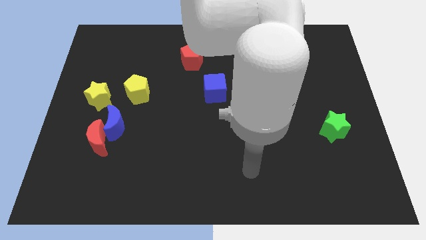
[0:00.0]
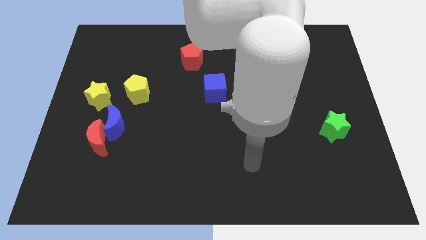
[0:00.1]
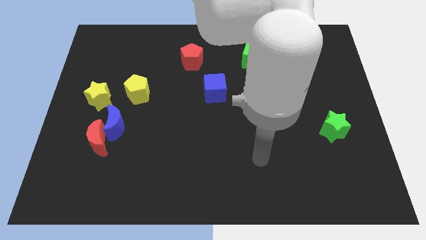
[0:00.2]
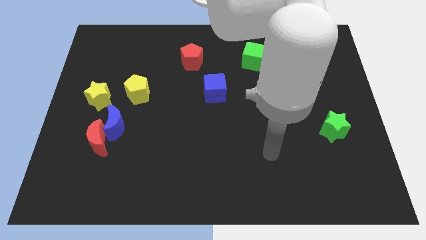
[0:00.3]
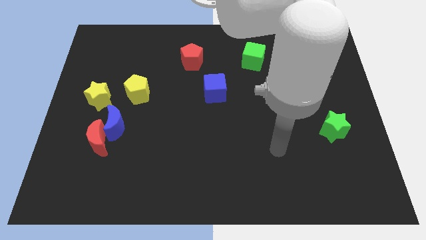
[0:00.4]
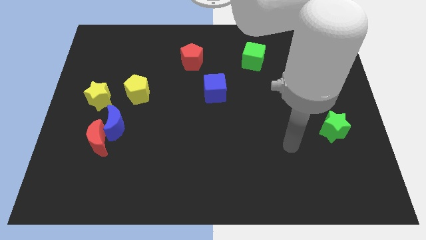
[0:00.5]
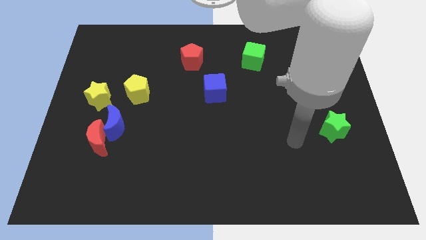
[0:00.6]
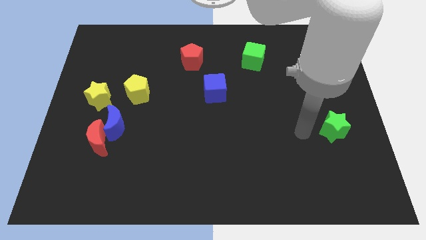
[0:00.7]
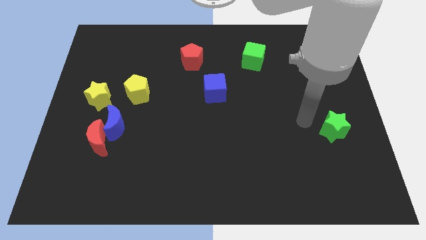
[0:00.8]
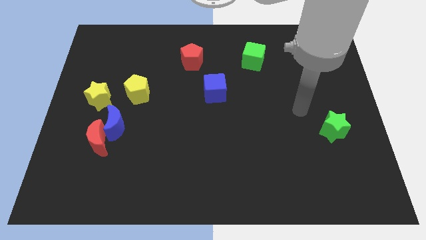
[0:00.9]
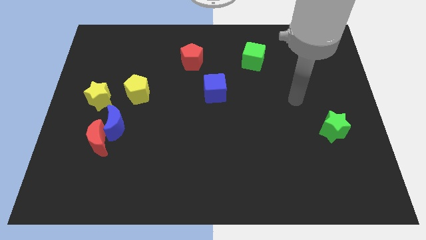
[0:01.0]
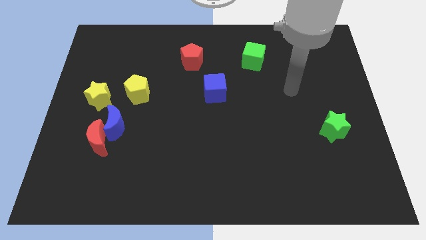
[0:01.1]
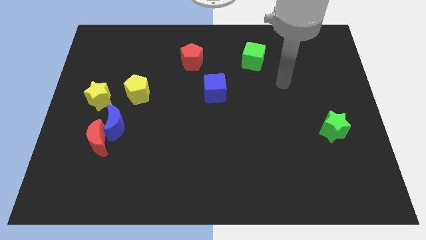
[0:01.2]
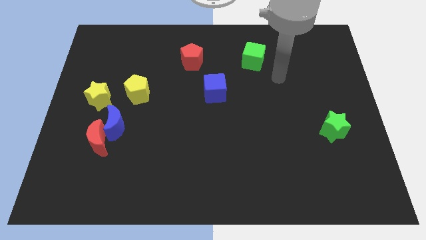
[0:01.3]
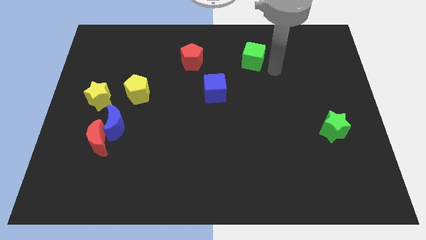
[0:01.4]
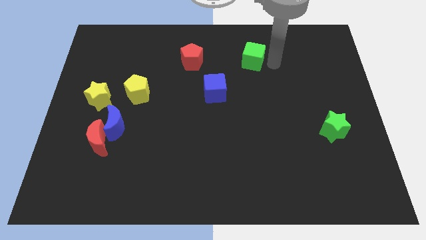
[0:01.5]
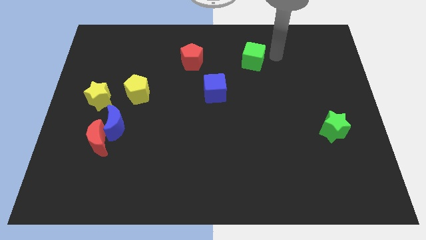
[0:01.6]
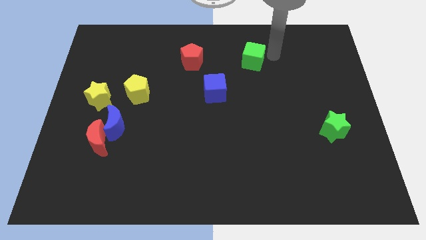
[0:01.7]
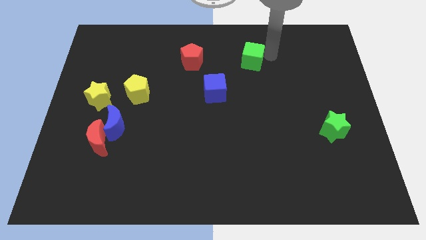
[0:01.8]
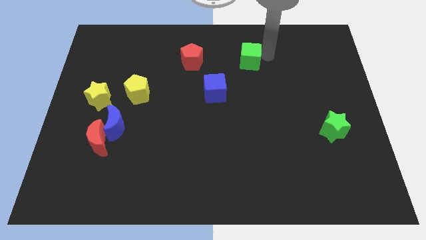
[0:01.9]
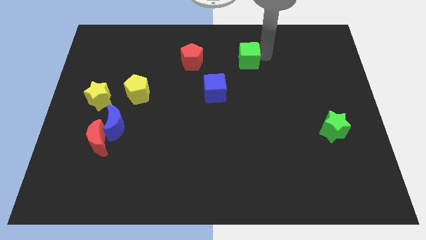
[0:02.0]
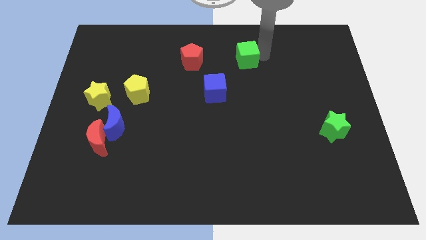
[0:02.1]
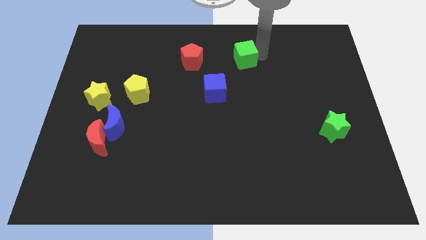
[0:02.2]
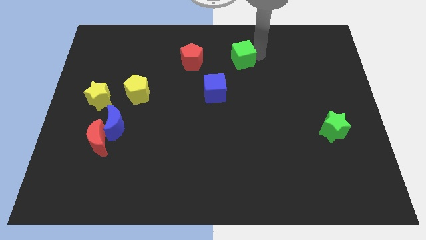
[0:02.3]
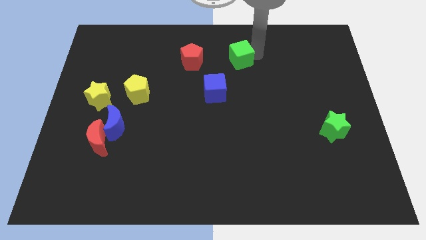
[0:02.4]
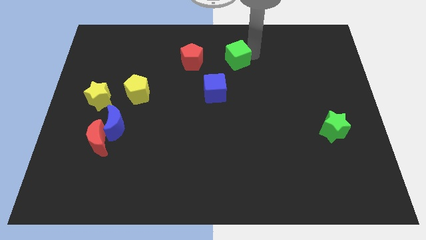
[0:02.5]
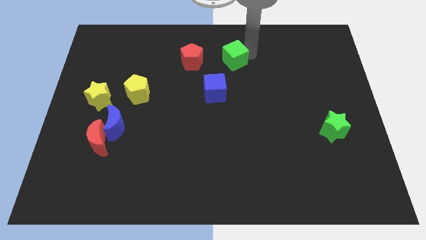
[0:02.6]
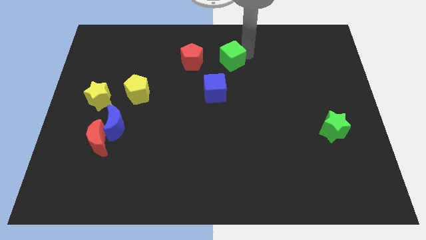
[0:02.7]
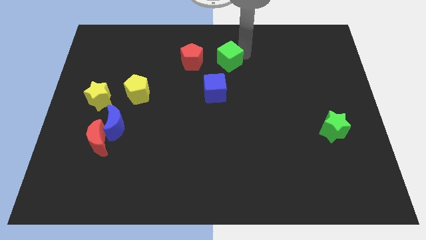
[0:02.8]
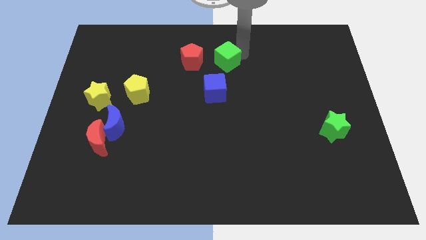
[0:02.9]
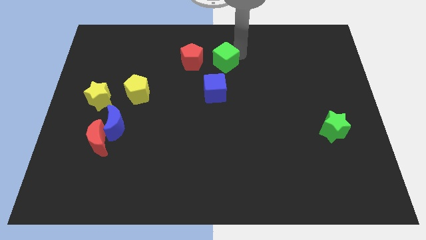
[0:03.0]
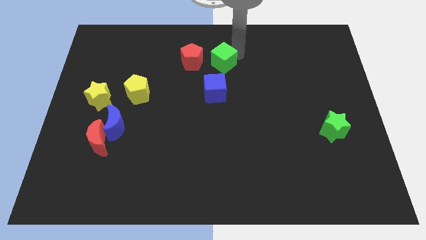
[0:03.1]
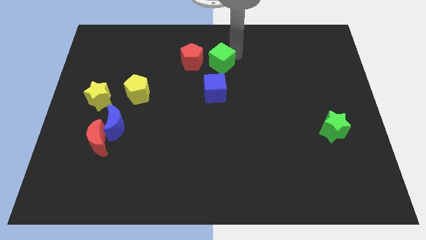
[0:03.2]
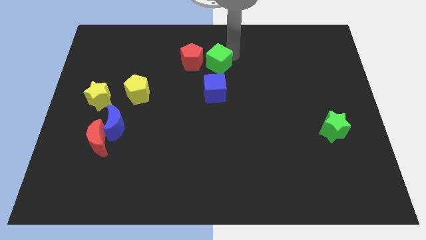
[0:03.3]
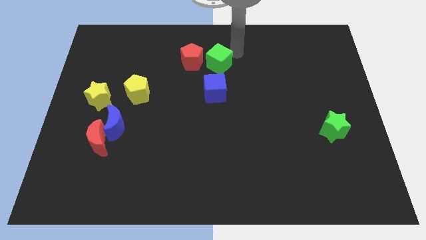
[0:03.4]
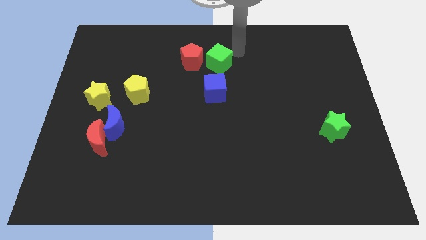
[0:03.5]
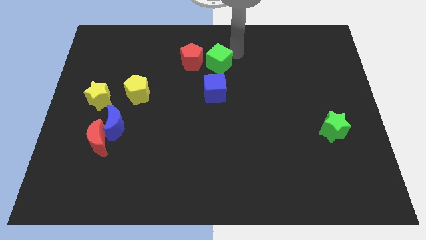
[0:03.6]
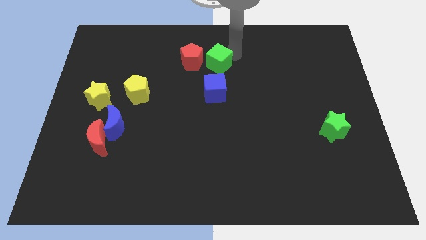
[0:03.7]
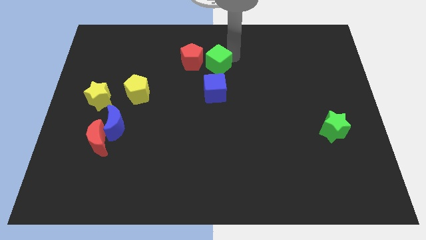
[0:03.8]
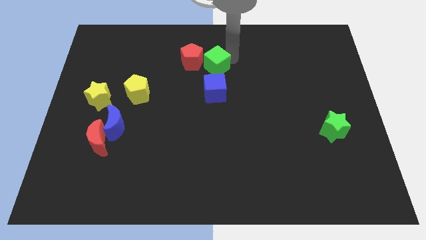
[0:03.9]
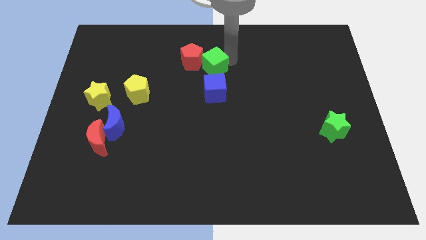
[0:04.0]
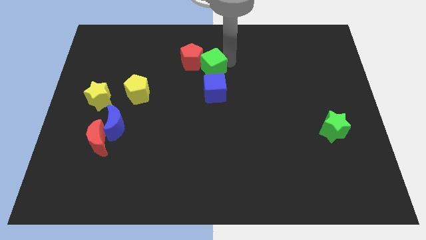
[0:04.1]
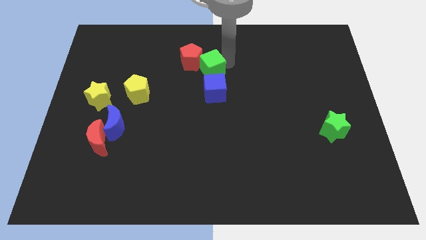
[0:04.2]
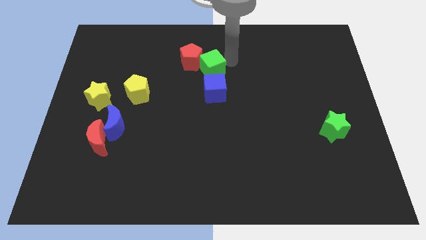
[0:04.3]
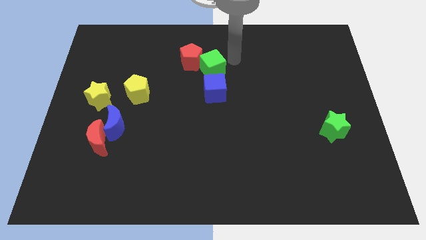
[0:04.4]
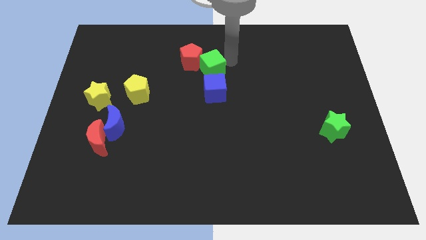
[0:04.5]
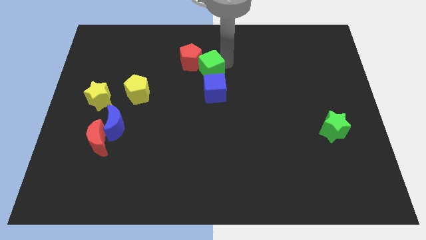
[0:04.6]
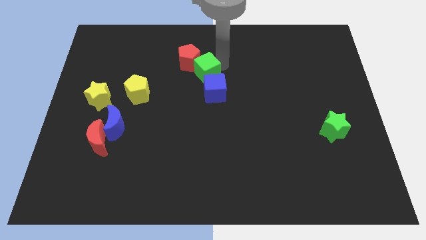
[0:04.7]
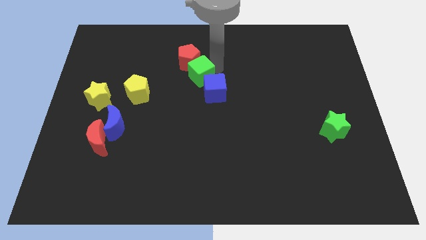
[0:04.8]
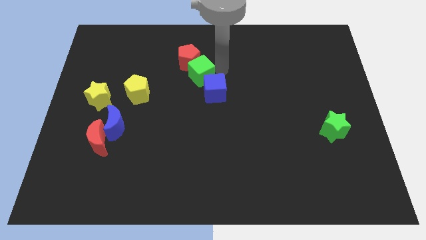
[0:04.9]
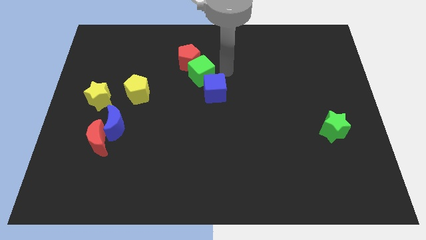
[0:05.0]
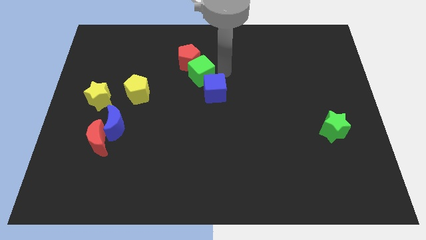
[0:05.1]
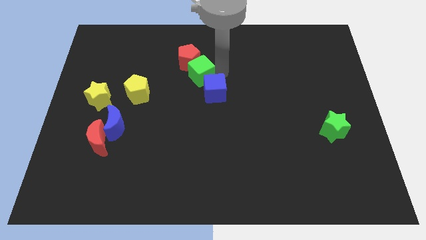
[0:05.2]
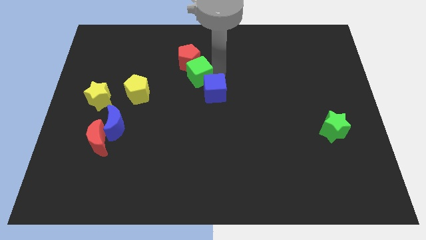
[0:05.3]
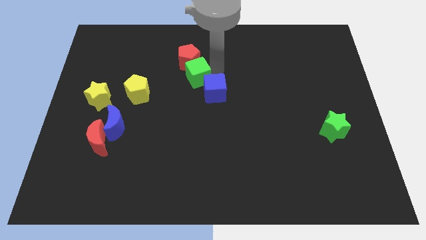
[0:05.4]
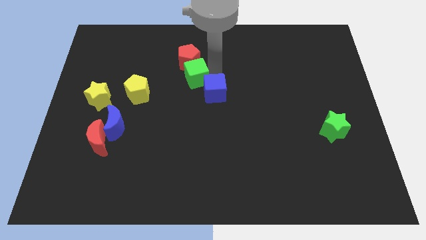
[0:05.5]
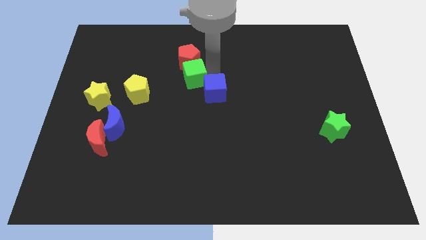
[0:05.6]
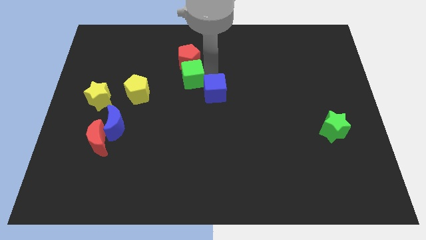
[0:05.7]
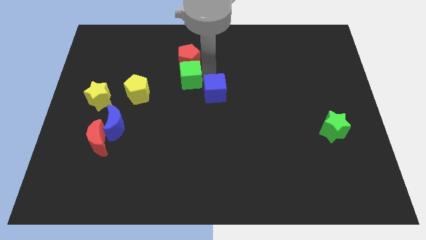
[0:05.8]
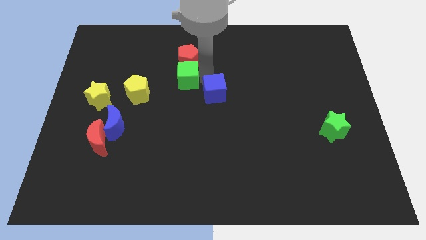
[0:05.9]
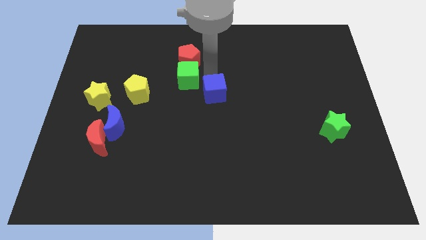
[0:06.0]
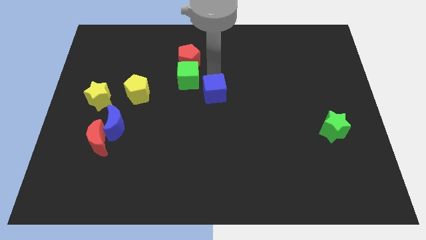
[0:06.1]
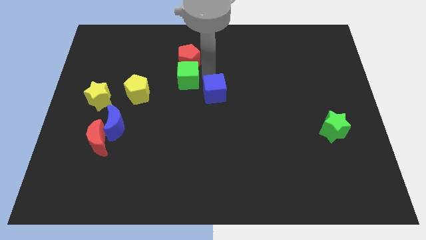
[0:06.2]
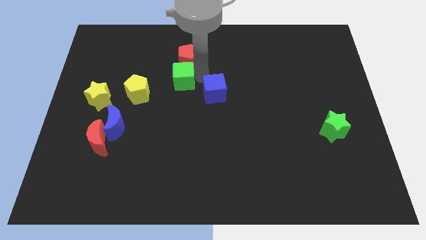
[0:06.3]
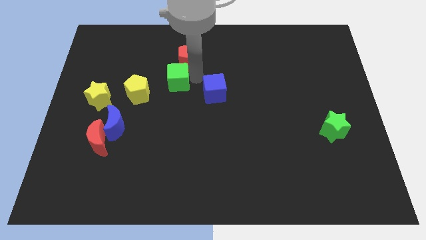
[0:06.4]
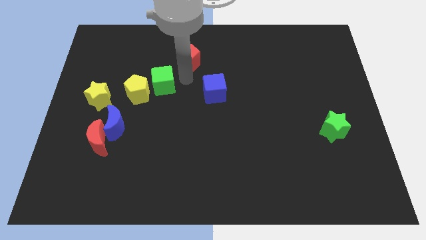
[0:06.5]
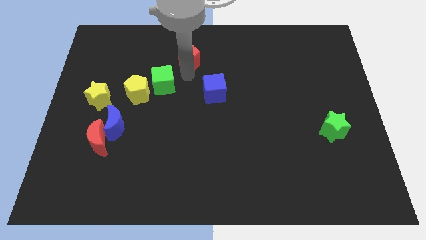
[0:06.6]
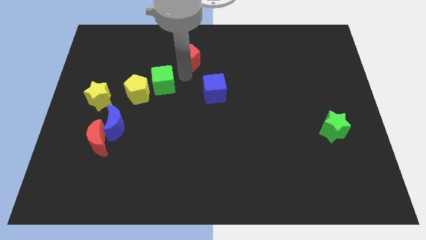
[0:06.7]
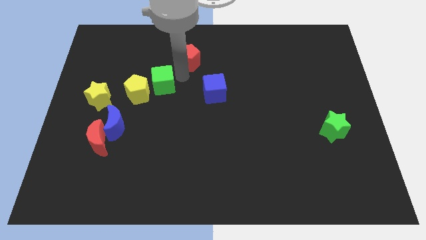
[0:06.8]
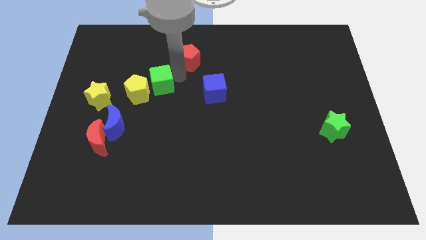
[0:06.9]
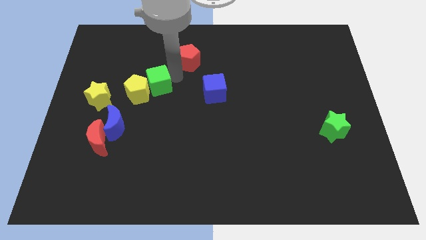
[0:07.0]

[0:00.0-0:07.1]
push the green cube to the yellow pentagon

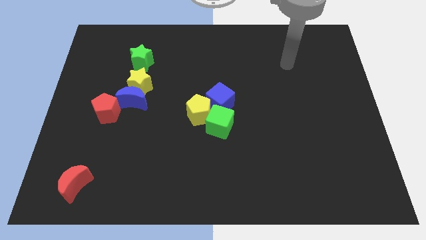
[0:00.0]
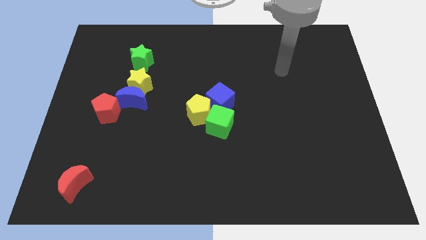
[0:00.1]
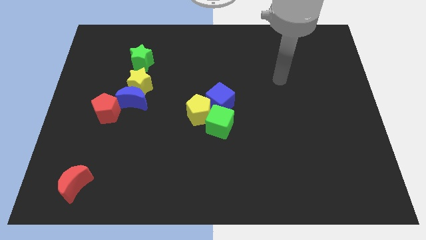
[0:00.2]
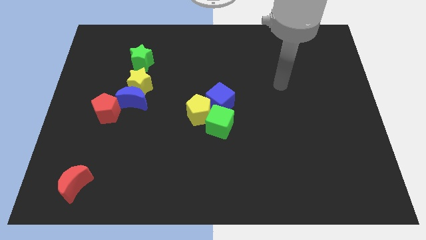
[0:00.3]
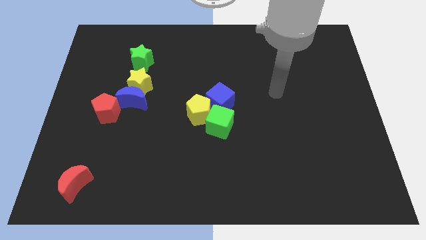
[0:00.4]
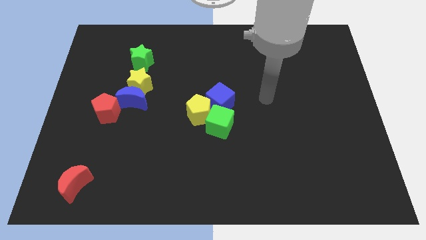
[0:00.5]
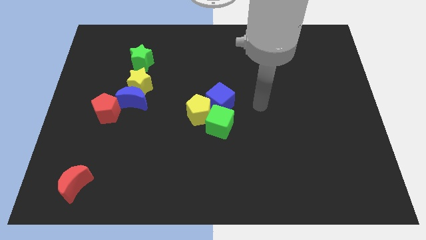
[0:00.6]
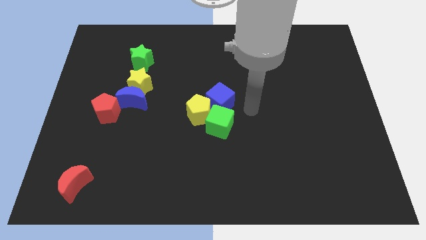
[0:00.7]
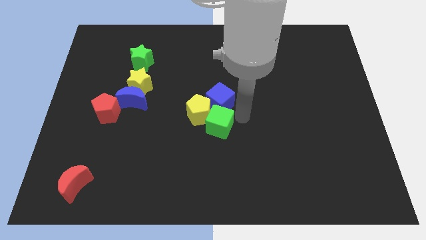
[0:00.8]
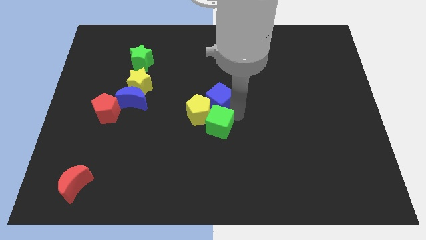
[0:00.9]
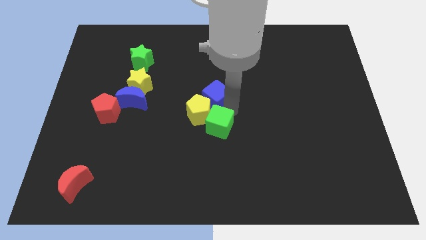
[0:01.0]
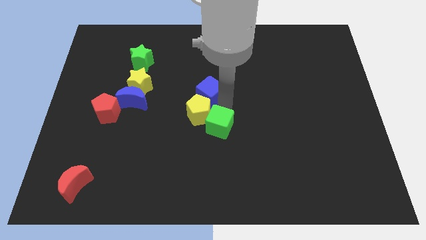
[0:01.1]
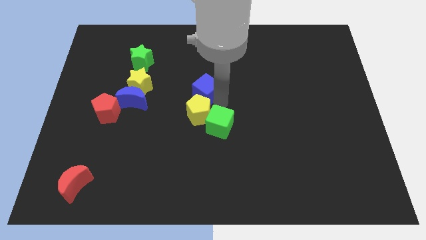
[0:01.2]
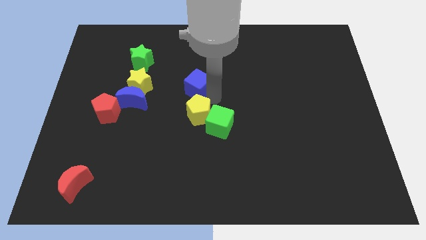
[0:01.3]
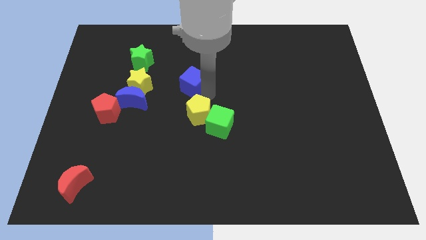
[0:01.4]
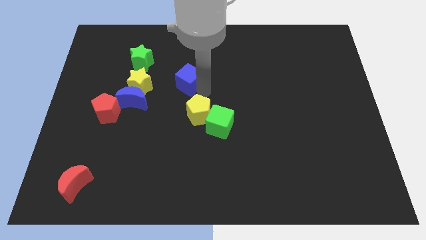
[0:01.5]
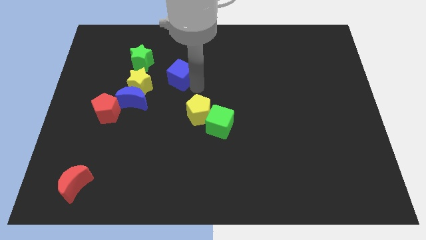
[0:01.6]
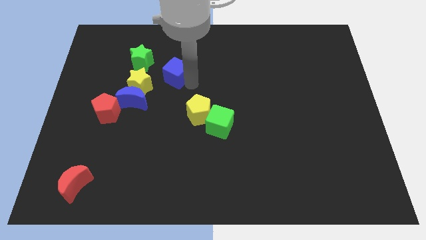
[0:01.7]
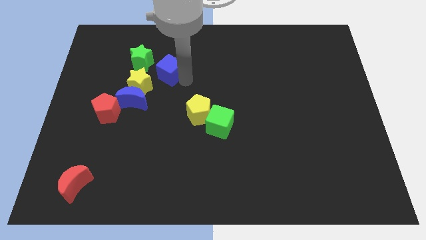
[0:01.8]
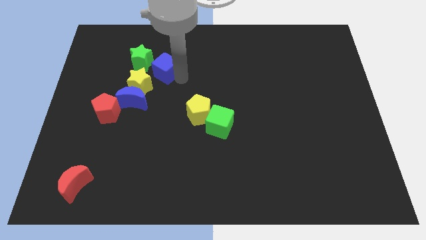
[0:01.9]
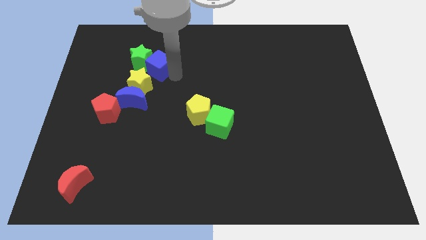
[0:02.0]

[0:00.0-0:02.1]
move the blue cube towards the green star
